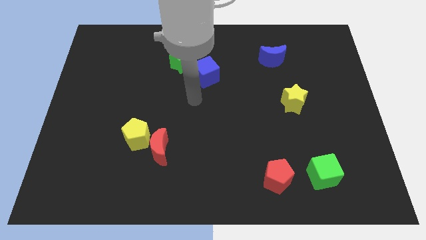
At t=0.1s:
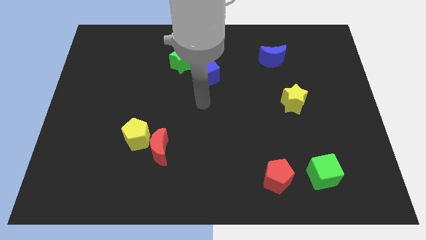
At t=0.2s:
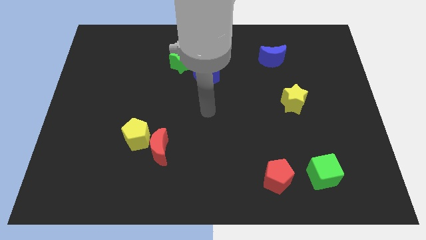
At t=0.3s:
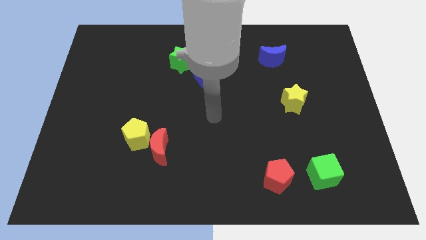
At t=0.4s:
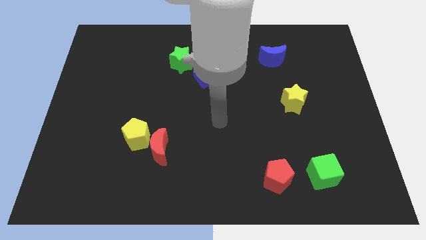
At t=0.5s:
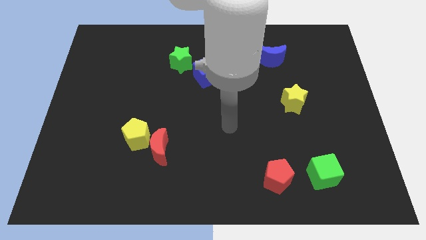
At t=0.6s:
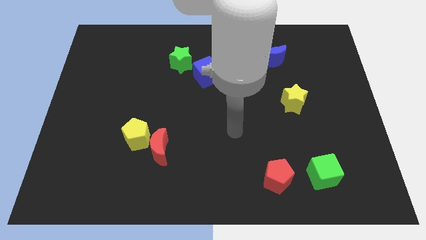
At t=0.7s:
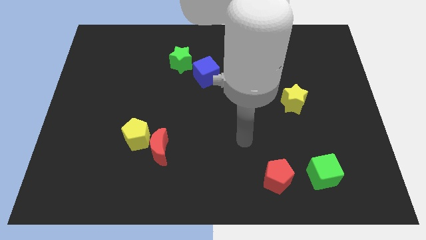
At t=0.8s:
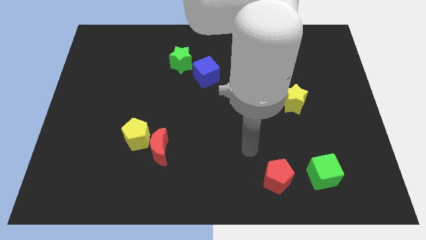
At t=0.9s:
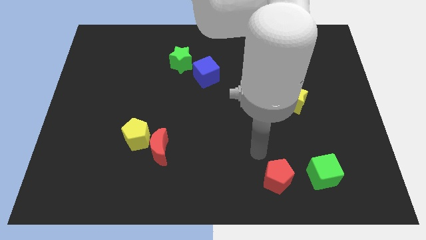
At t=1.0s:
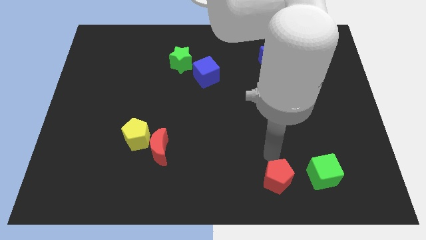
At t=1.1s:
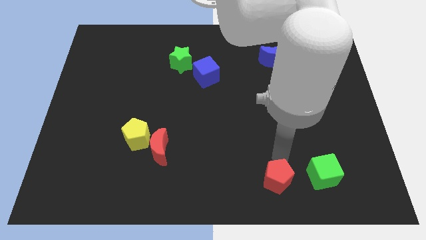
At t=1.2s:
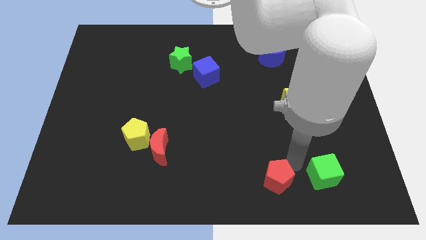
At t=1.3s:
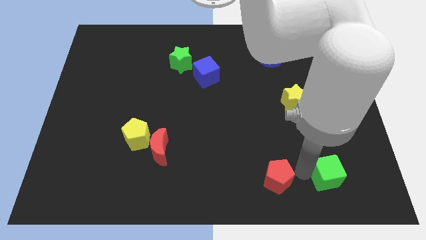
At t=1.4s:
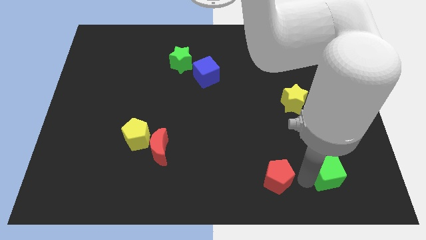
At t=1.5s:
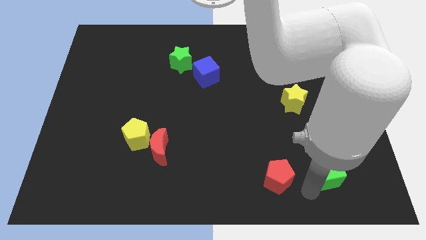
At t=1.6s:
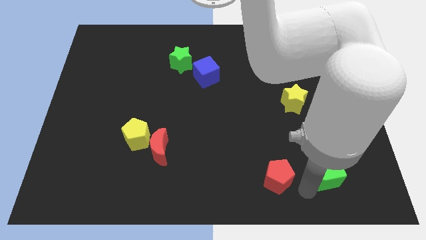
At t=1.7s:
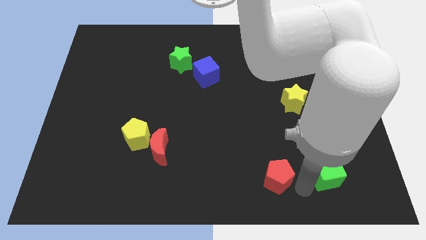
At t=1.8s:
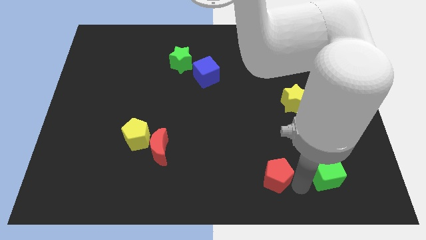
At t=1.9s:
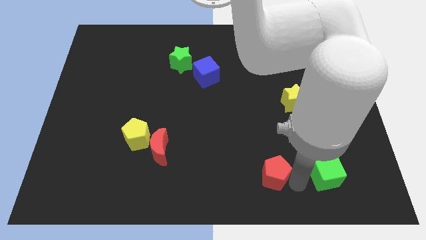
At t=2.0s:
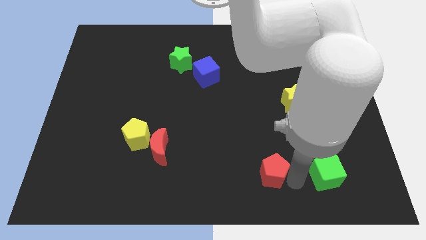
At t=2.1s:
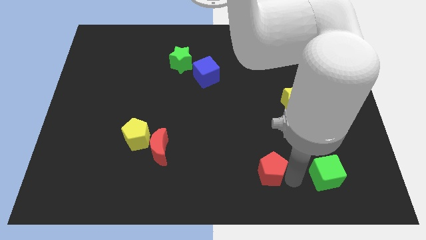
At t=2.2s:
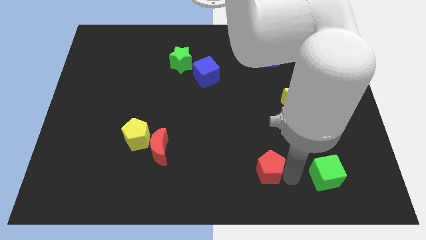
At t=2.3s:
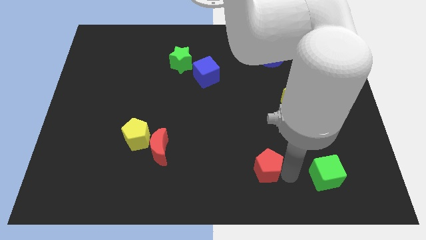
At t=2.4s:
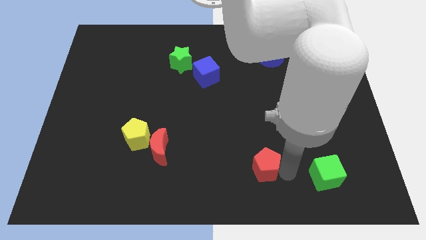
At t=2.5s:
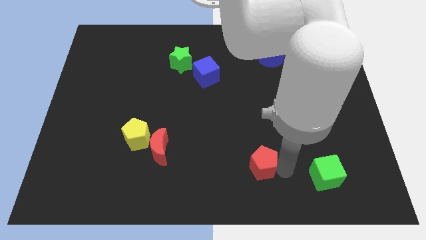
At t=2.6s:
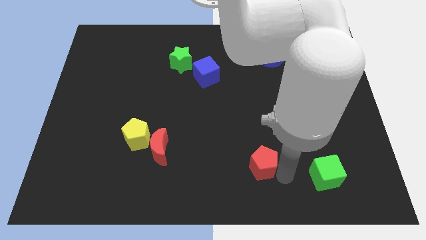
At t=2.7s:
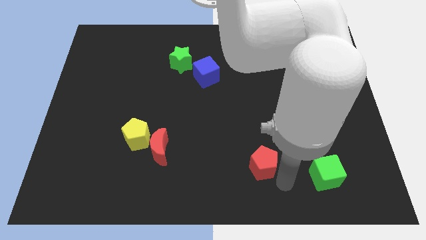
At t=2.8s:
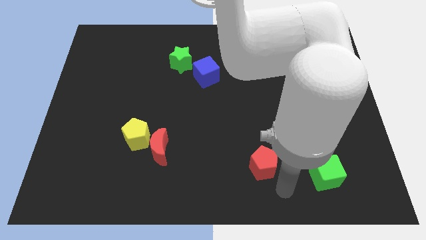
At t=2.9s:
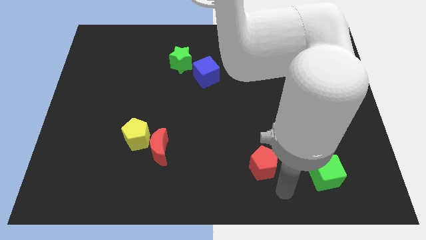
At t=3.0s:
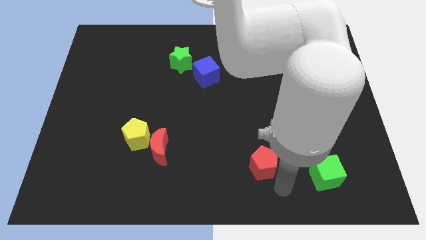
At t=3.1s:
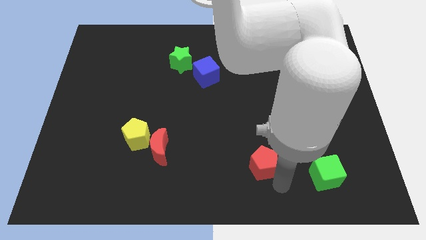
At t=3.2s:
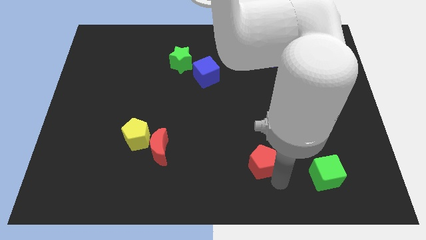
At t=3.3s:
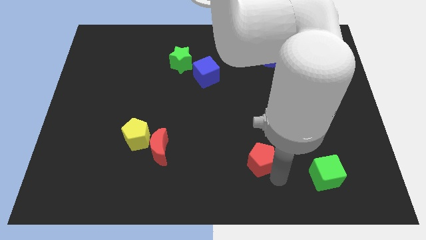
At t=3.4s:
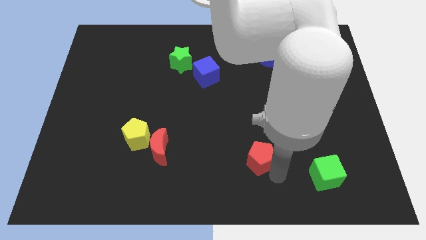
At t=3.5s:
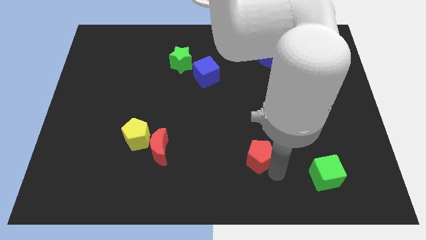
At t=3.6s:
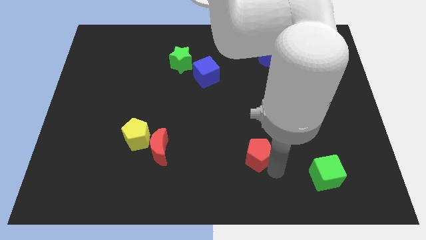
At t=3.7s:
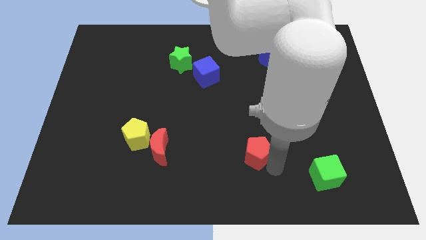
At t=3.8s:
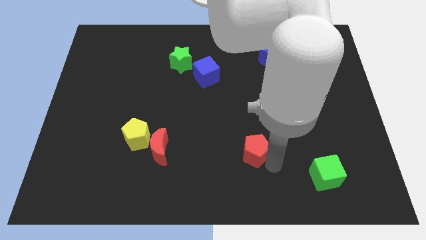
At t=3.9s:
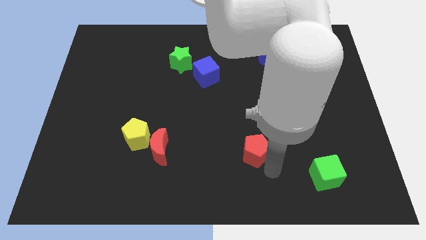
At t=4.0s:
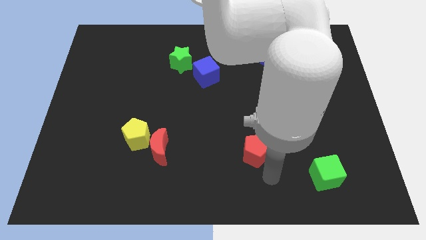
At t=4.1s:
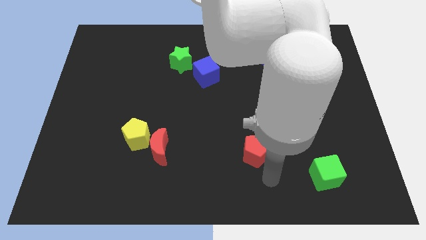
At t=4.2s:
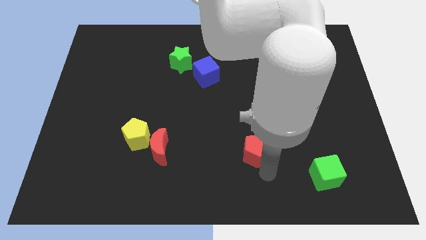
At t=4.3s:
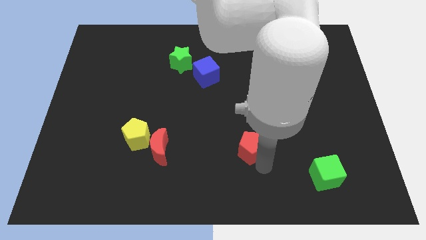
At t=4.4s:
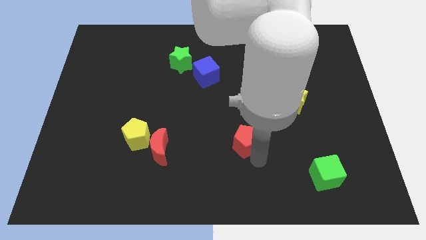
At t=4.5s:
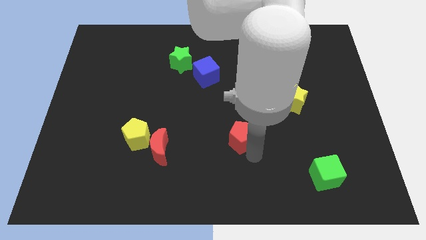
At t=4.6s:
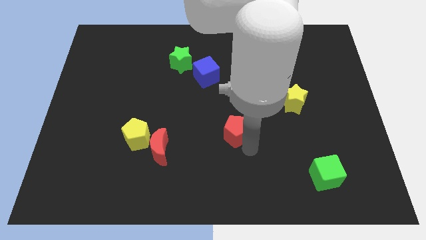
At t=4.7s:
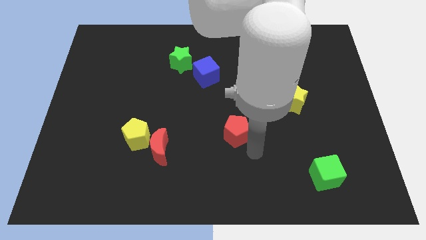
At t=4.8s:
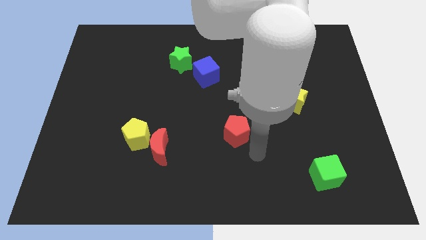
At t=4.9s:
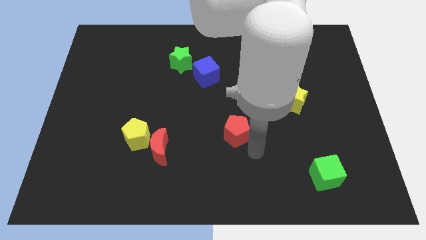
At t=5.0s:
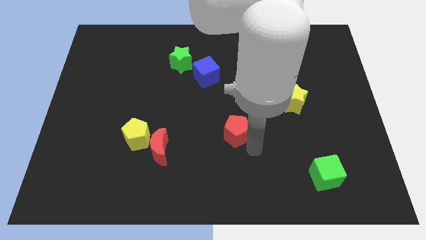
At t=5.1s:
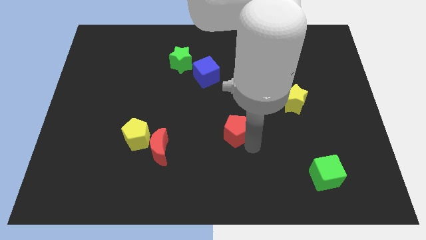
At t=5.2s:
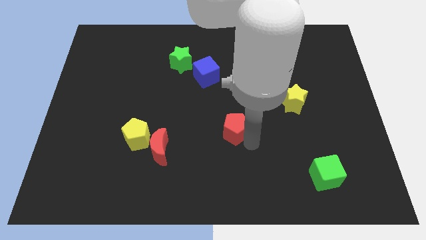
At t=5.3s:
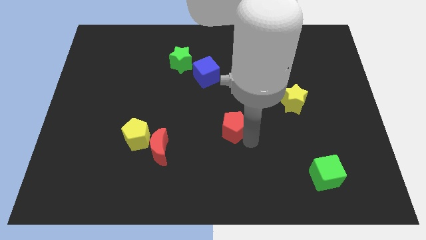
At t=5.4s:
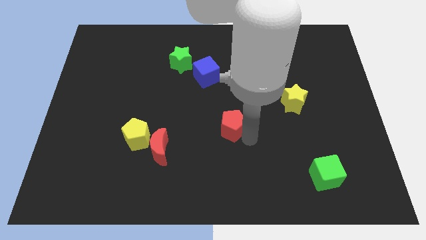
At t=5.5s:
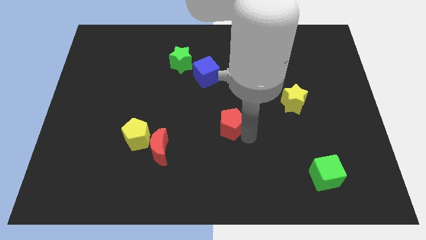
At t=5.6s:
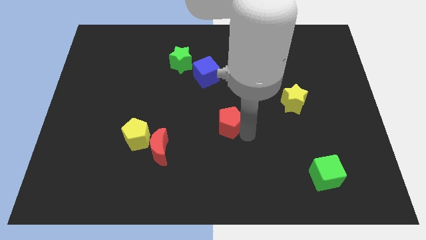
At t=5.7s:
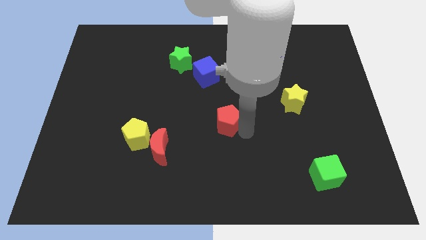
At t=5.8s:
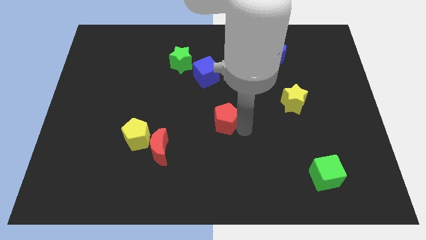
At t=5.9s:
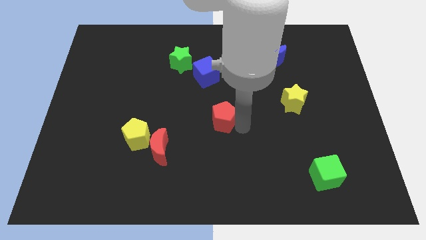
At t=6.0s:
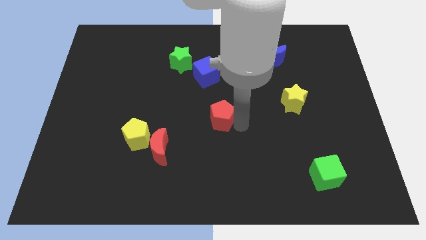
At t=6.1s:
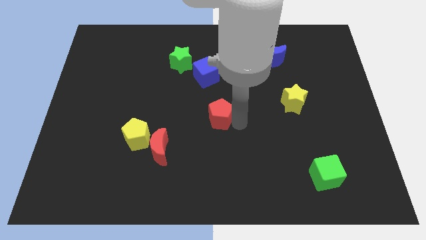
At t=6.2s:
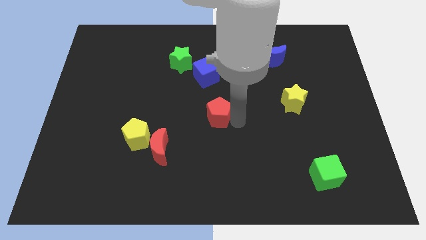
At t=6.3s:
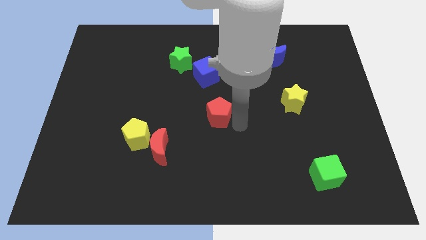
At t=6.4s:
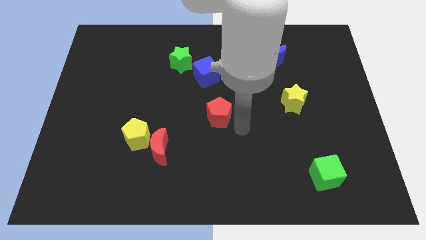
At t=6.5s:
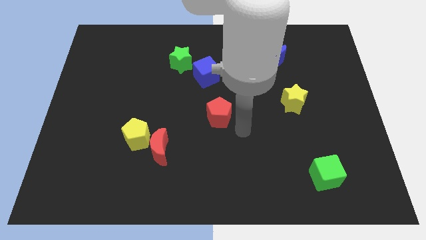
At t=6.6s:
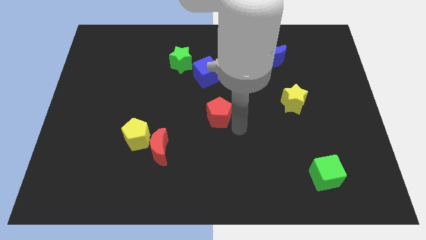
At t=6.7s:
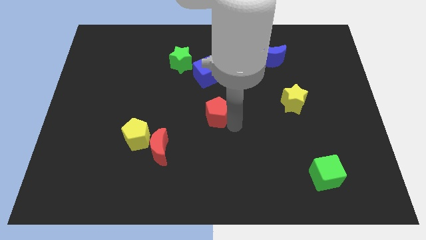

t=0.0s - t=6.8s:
push the red pentagon up and to the left diagonally

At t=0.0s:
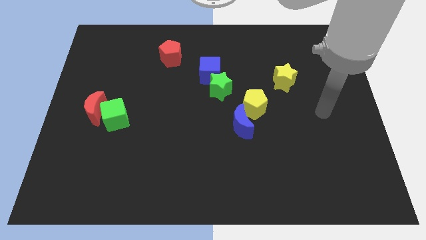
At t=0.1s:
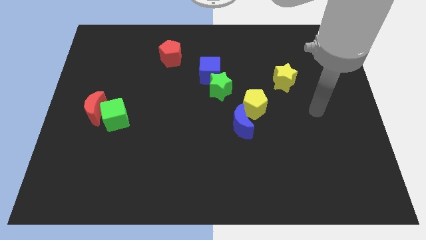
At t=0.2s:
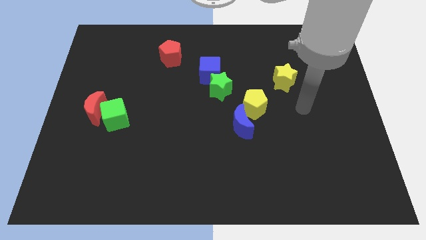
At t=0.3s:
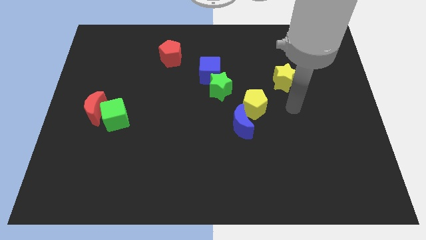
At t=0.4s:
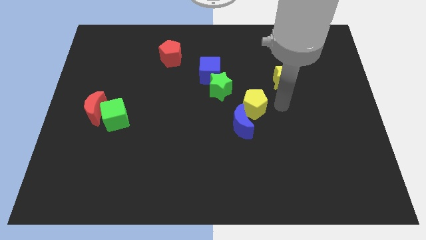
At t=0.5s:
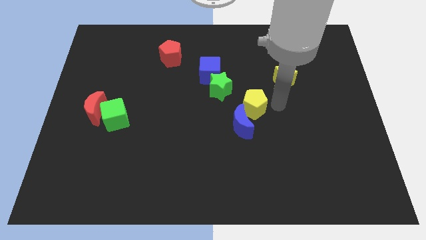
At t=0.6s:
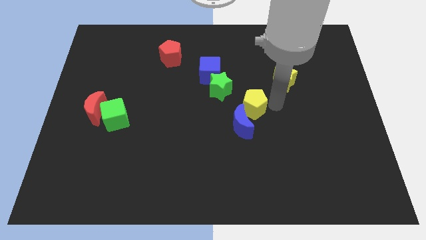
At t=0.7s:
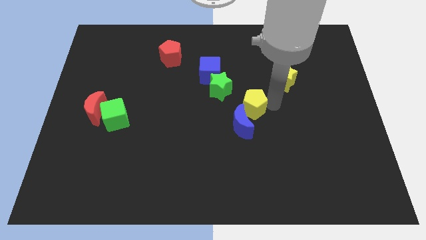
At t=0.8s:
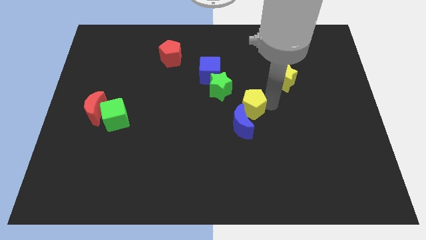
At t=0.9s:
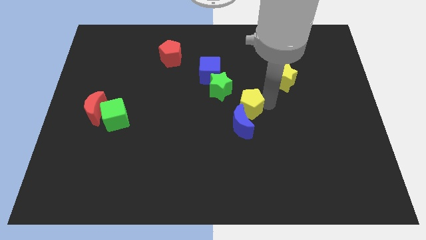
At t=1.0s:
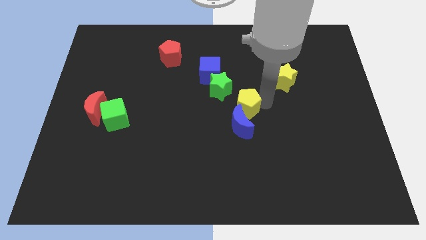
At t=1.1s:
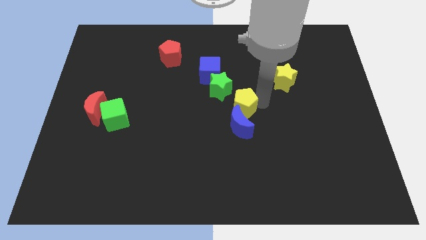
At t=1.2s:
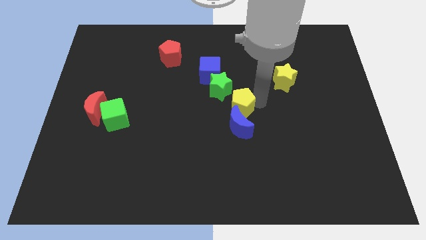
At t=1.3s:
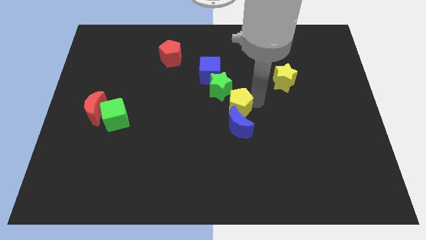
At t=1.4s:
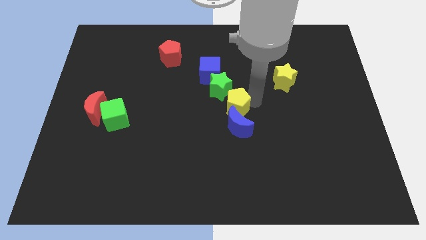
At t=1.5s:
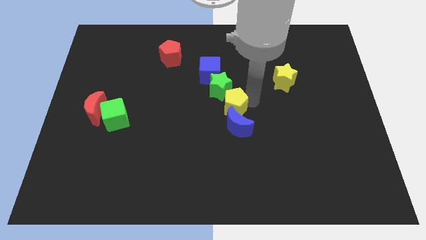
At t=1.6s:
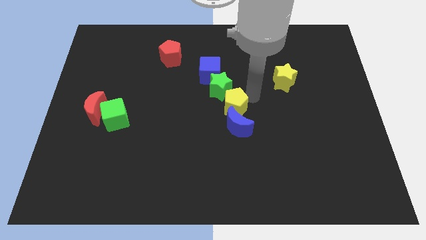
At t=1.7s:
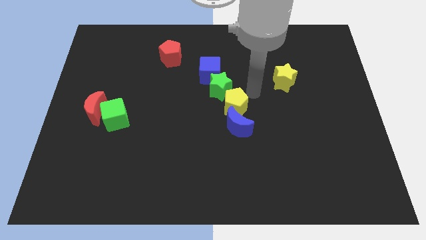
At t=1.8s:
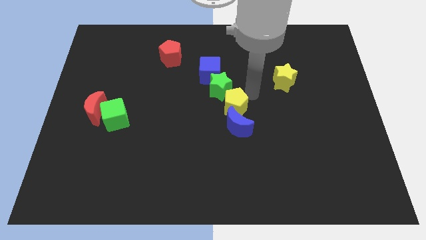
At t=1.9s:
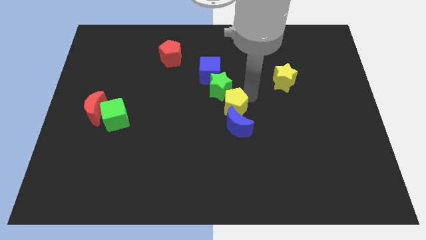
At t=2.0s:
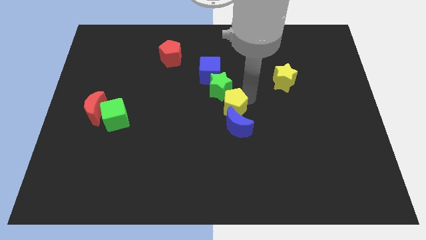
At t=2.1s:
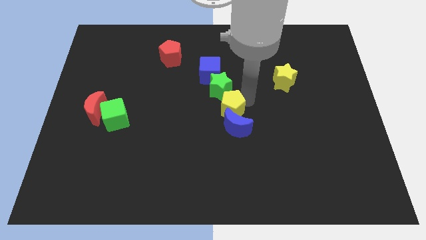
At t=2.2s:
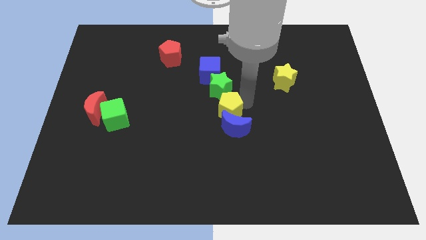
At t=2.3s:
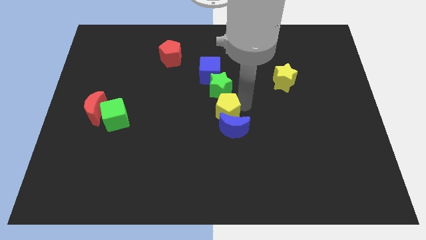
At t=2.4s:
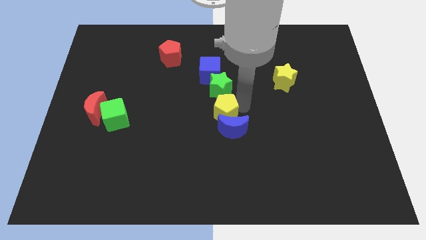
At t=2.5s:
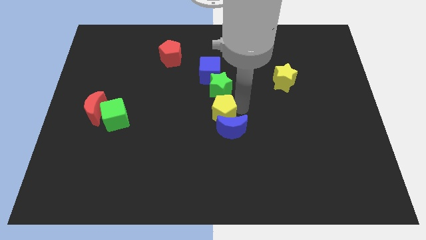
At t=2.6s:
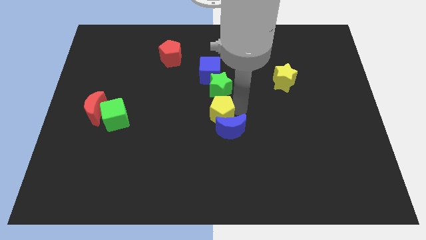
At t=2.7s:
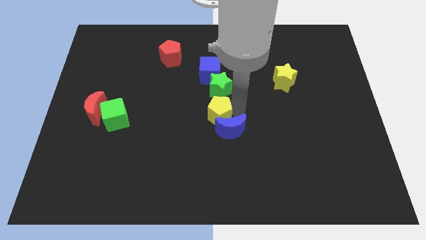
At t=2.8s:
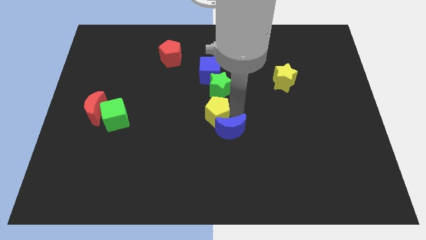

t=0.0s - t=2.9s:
move the yellow pentagon slightly down and left
